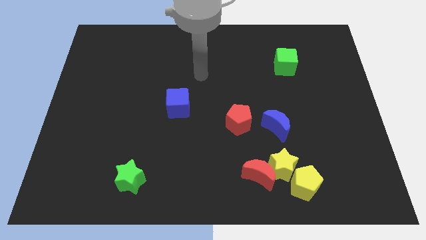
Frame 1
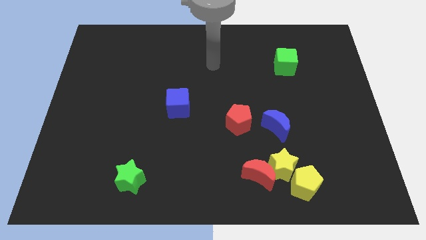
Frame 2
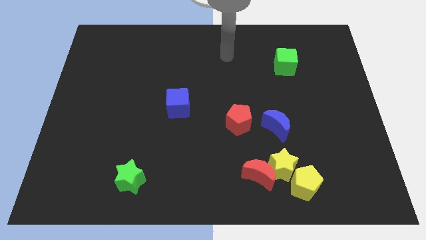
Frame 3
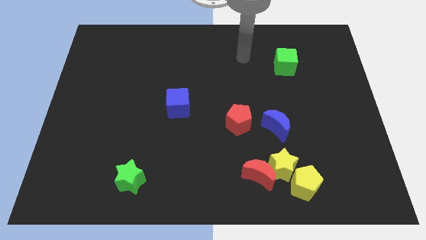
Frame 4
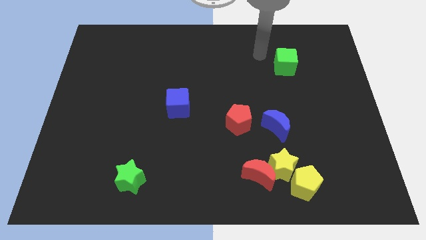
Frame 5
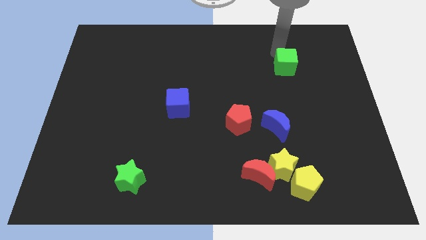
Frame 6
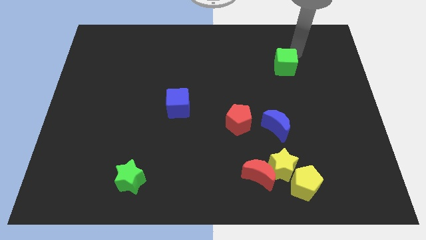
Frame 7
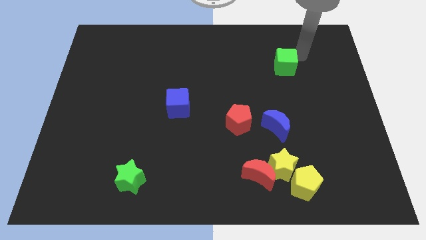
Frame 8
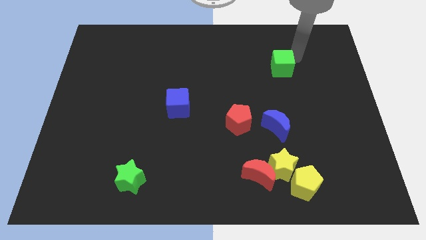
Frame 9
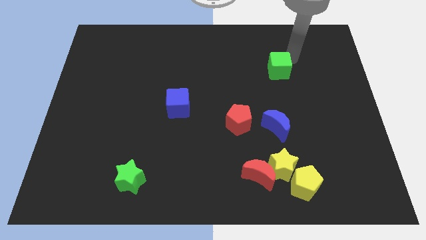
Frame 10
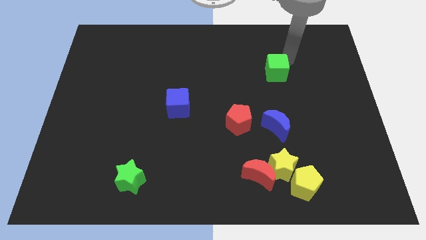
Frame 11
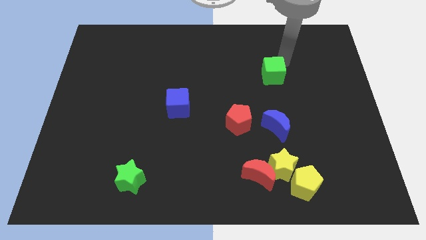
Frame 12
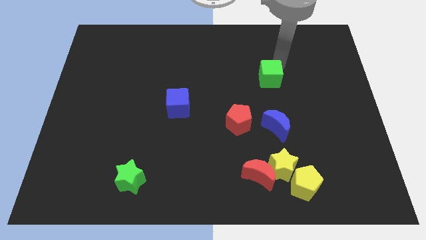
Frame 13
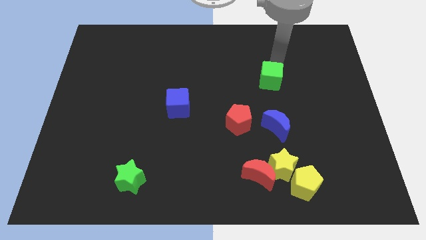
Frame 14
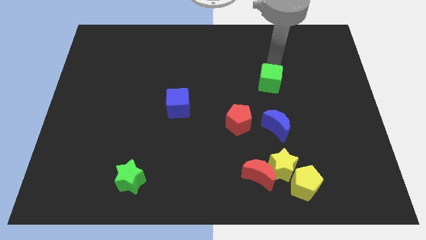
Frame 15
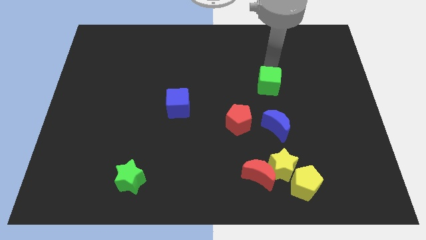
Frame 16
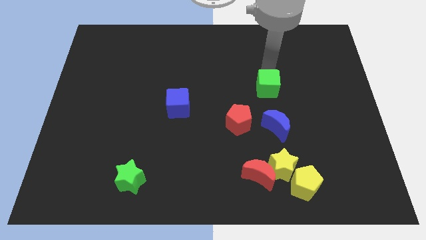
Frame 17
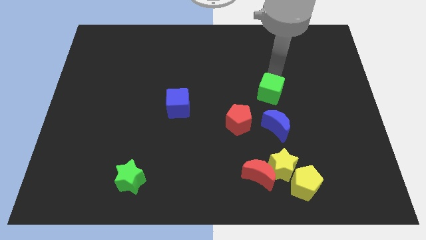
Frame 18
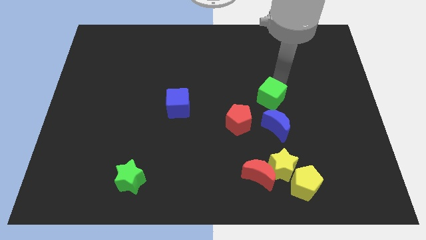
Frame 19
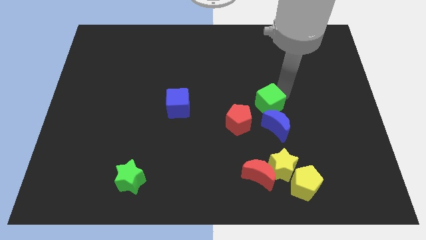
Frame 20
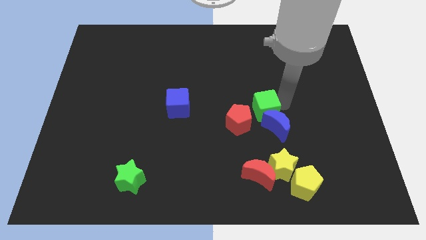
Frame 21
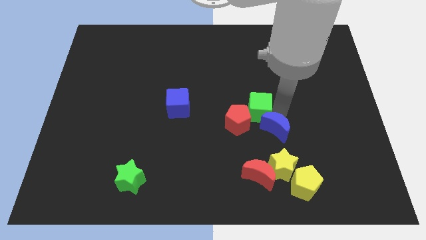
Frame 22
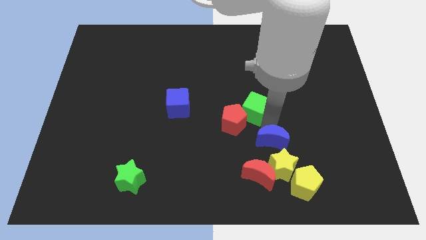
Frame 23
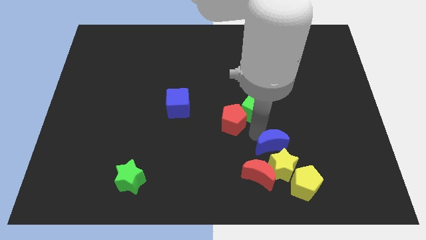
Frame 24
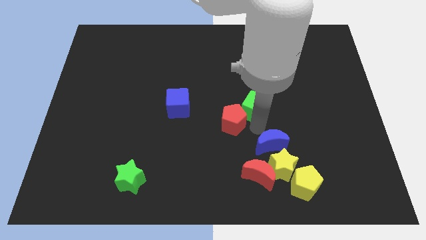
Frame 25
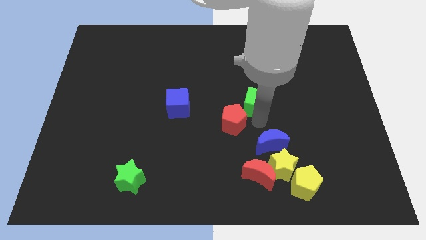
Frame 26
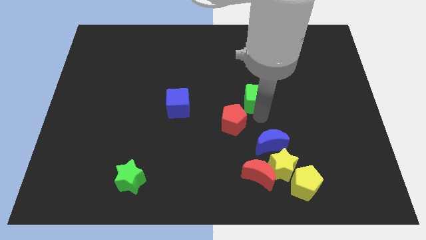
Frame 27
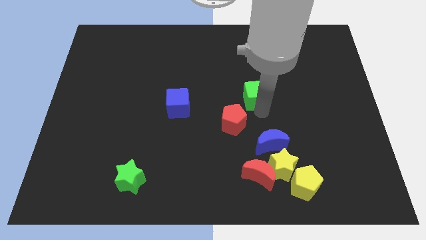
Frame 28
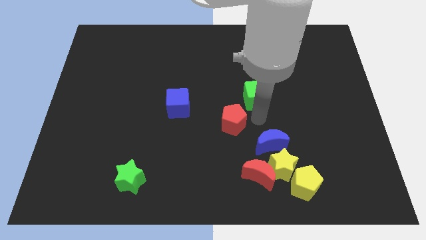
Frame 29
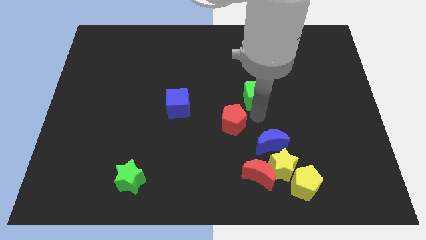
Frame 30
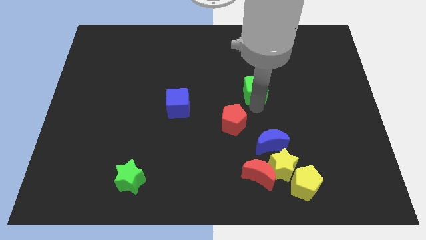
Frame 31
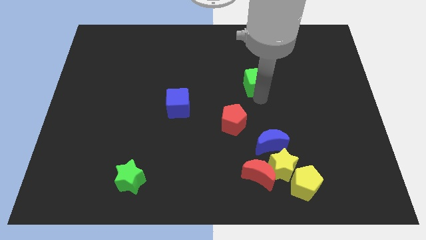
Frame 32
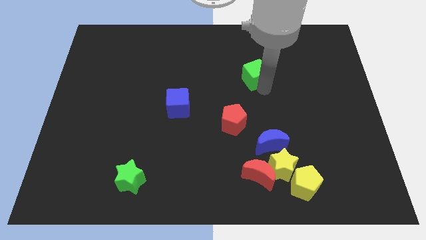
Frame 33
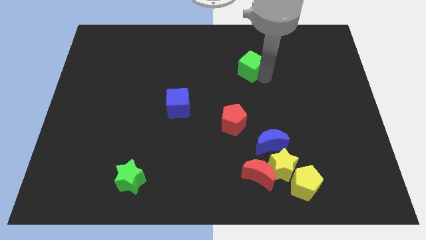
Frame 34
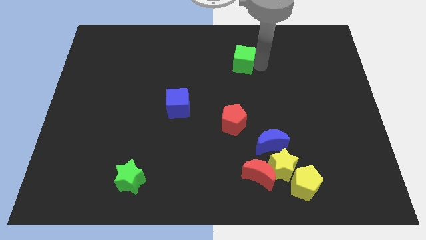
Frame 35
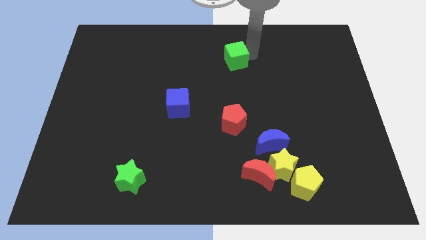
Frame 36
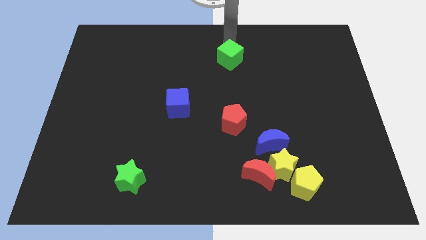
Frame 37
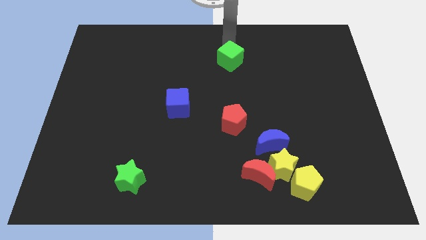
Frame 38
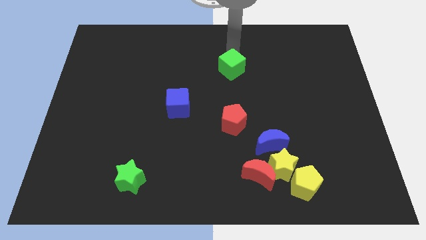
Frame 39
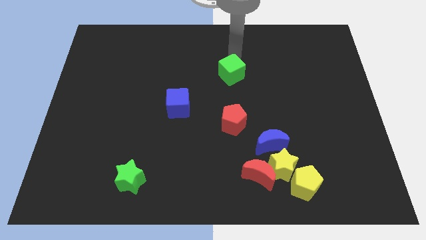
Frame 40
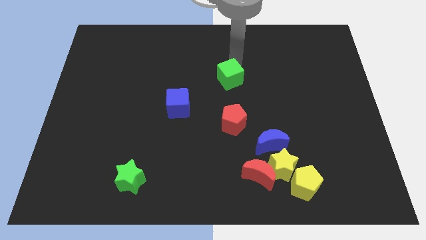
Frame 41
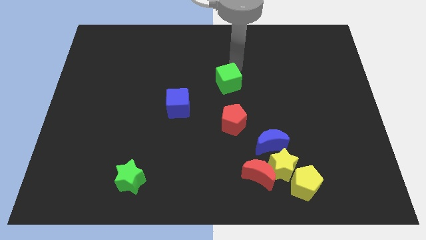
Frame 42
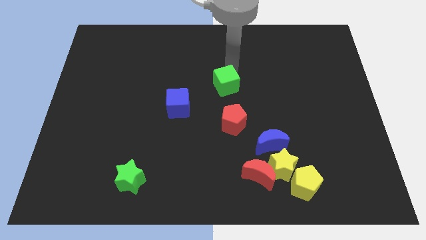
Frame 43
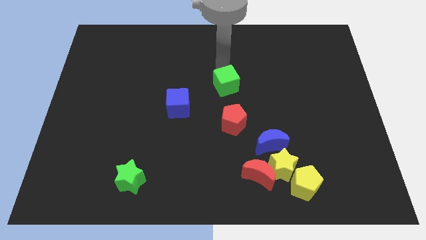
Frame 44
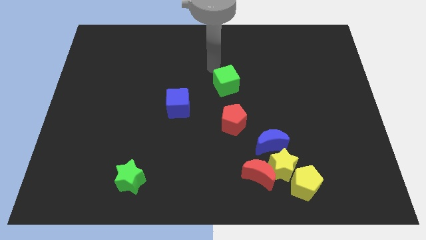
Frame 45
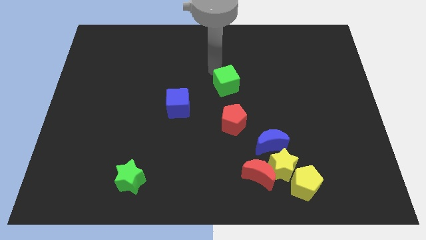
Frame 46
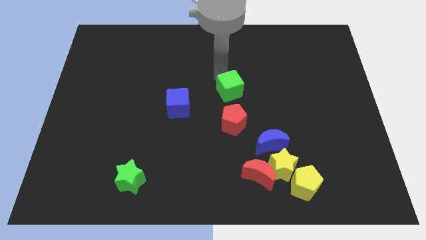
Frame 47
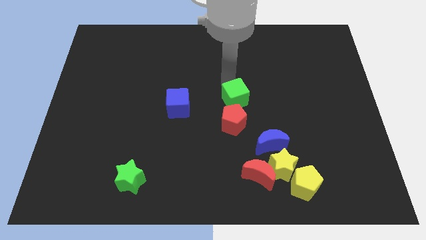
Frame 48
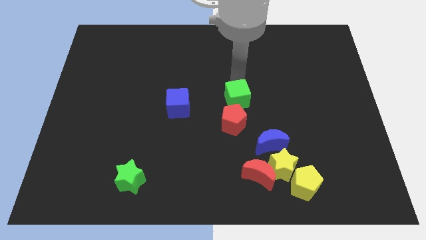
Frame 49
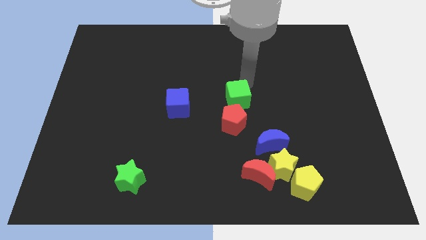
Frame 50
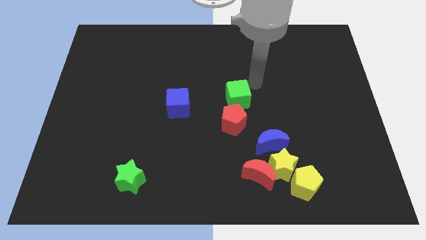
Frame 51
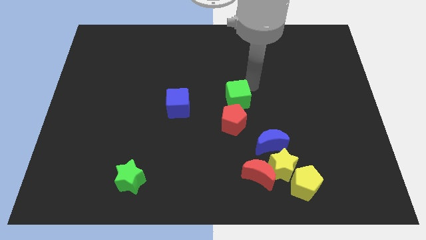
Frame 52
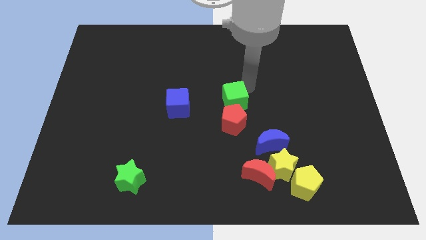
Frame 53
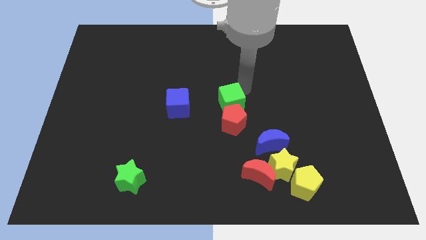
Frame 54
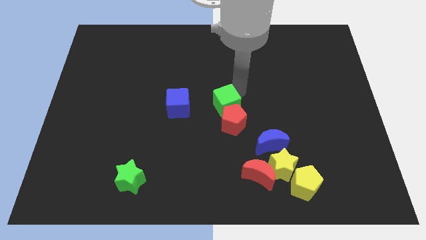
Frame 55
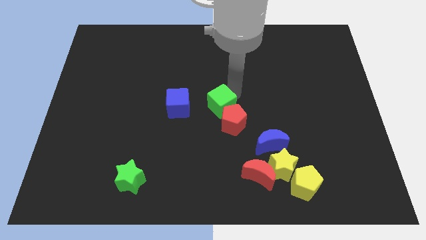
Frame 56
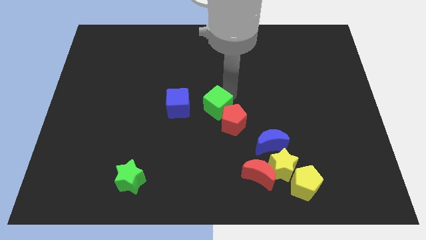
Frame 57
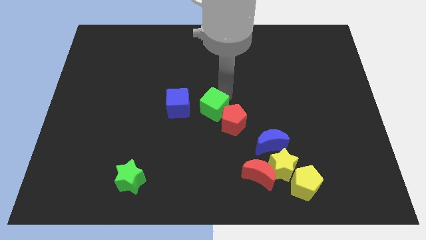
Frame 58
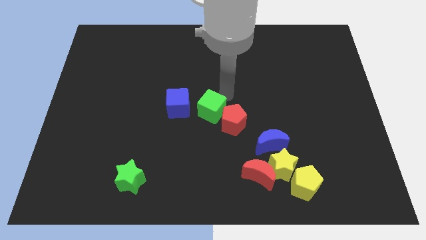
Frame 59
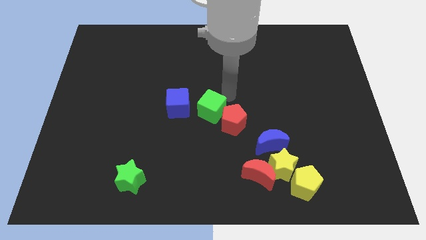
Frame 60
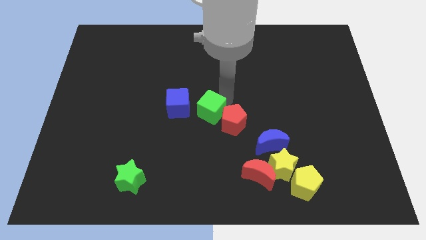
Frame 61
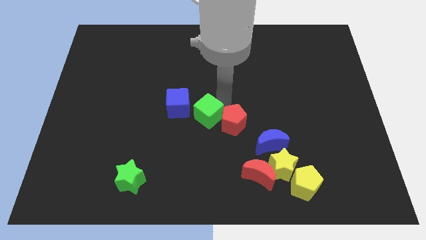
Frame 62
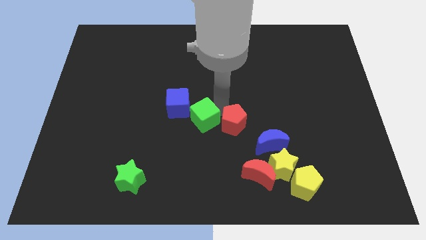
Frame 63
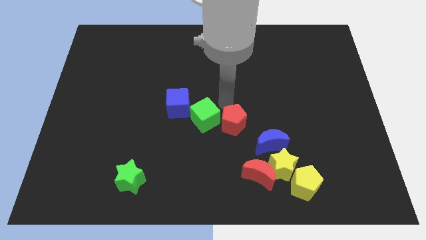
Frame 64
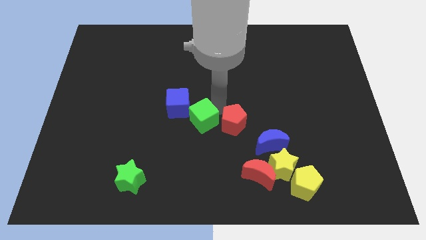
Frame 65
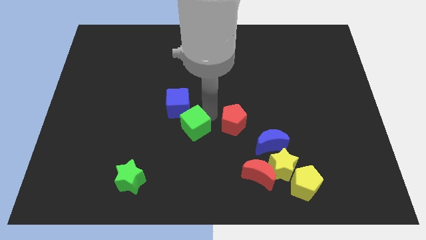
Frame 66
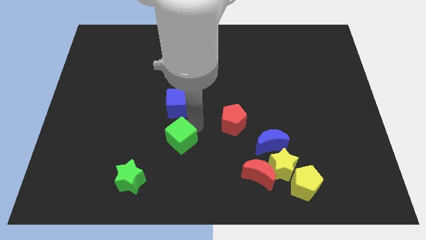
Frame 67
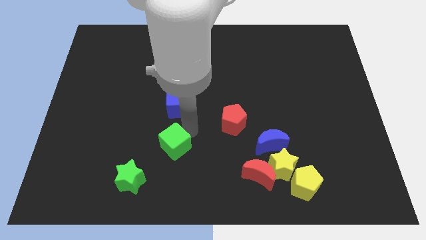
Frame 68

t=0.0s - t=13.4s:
slide the green cube diagonally up and to the right of the green star
